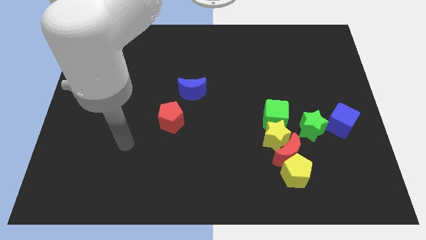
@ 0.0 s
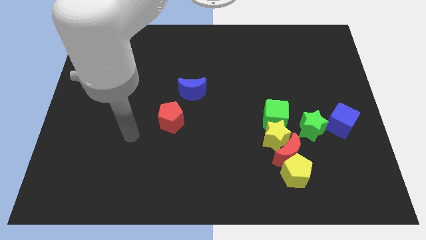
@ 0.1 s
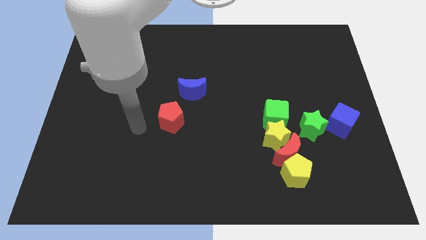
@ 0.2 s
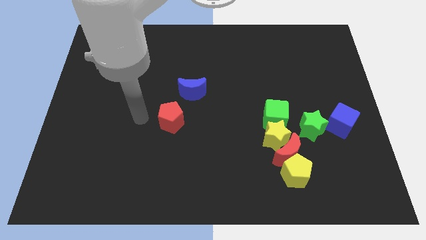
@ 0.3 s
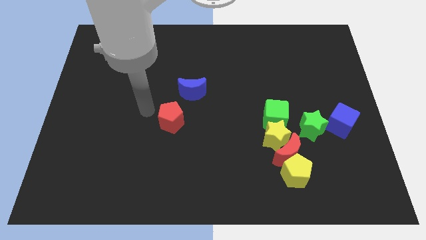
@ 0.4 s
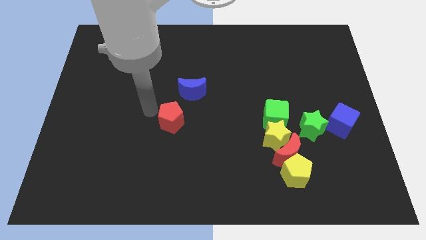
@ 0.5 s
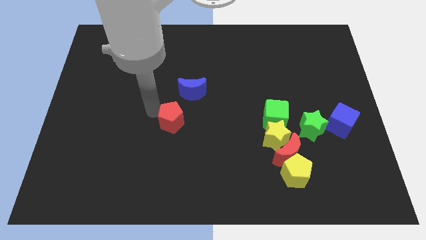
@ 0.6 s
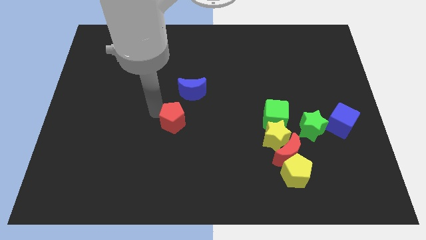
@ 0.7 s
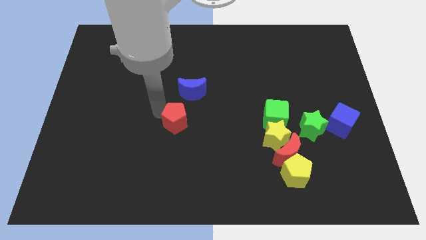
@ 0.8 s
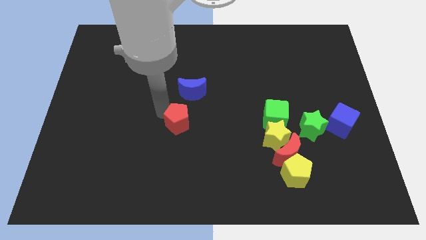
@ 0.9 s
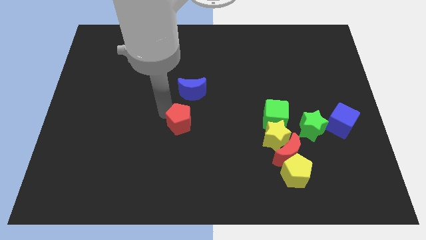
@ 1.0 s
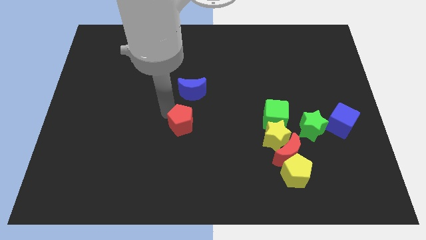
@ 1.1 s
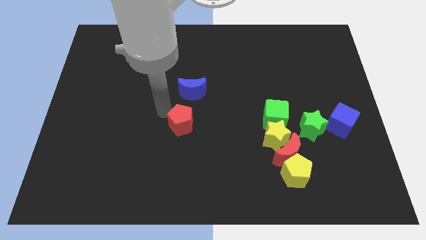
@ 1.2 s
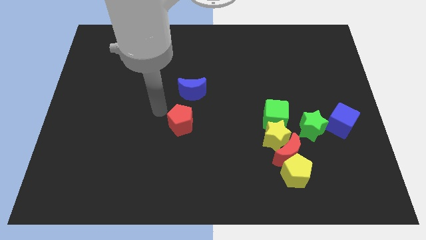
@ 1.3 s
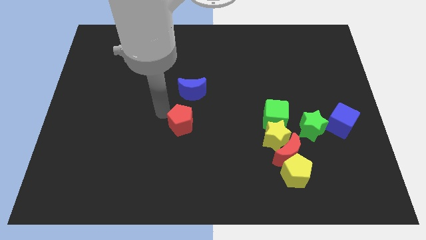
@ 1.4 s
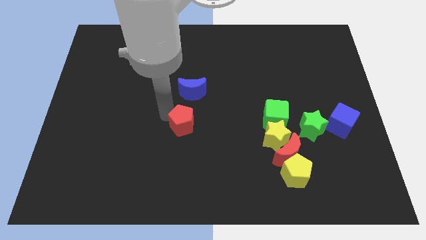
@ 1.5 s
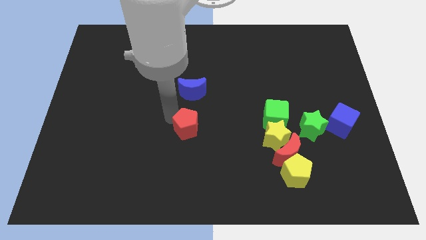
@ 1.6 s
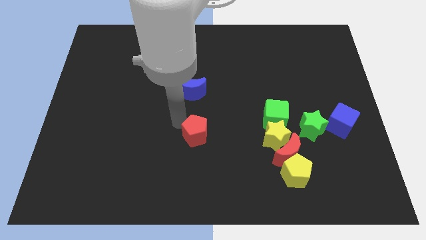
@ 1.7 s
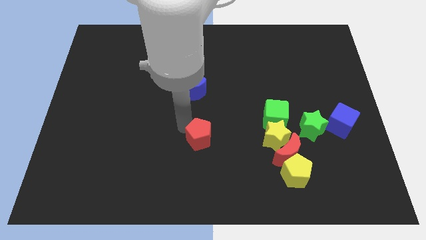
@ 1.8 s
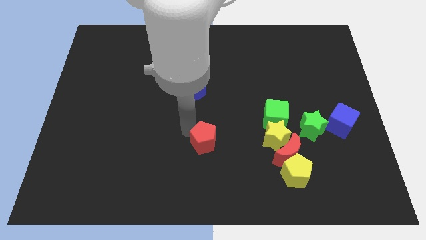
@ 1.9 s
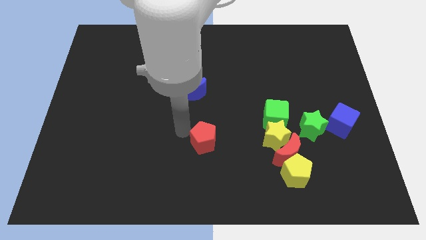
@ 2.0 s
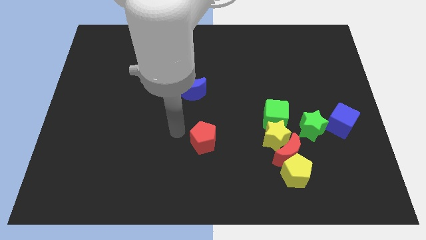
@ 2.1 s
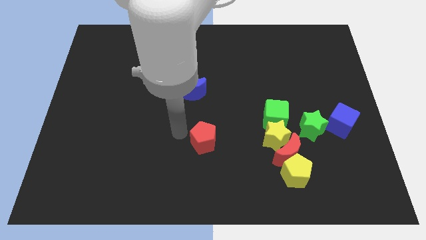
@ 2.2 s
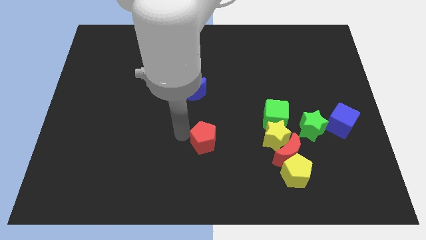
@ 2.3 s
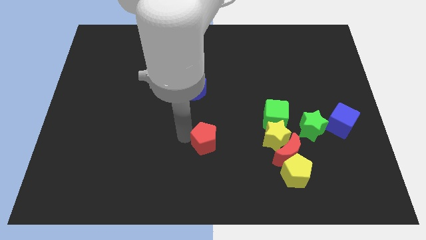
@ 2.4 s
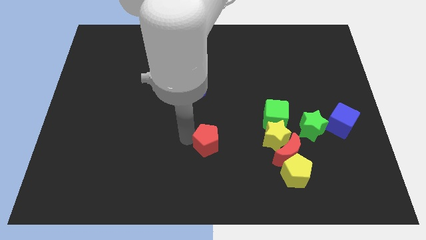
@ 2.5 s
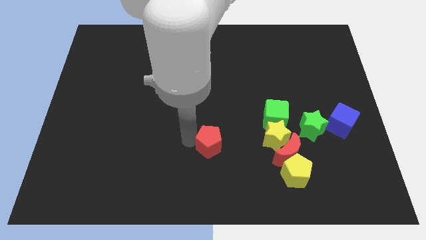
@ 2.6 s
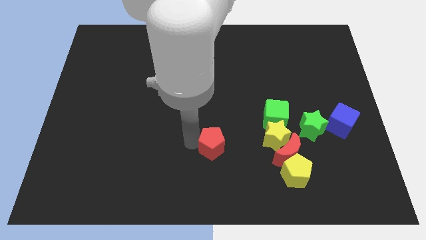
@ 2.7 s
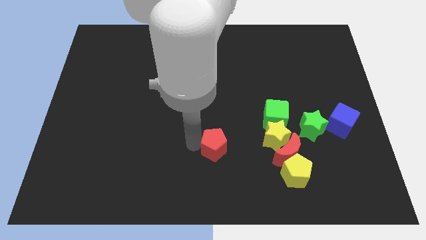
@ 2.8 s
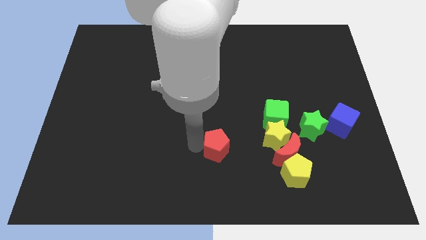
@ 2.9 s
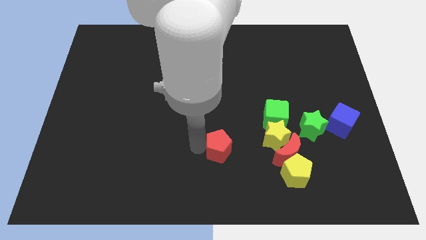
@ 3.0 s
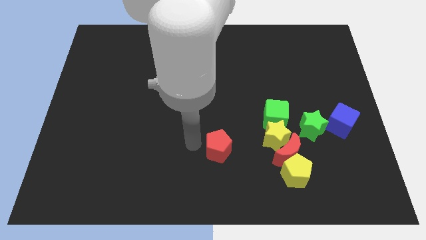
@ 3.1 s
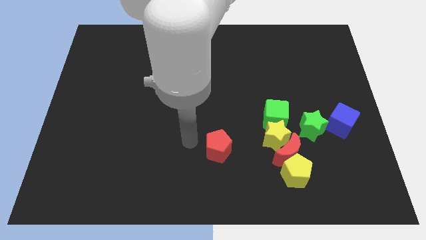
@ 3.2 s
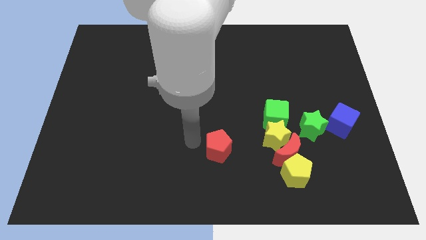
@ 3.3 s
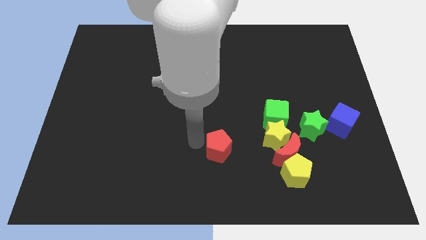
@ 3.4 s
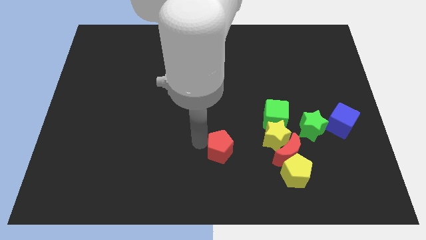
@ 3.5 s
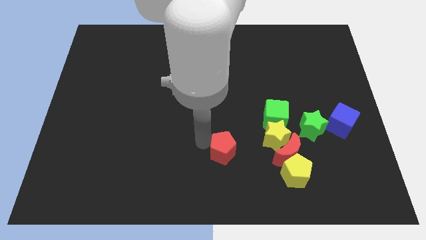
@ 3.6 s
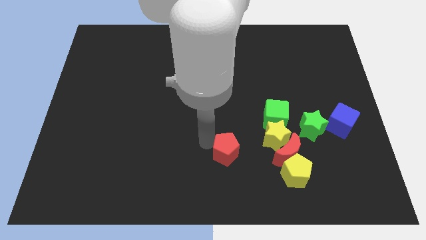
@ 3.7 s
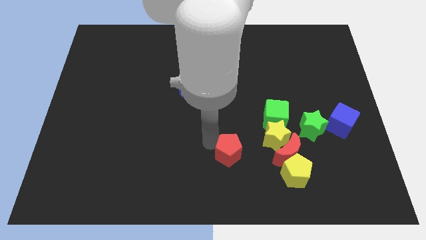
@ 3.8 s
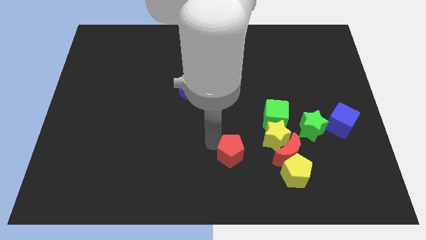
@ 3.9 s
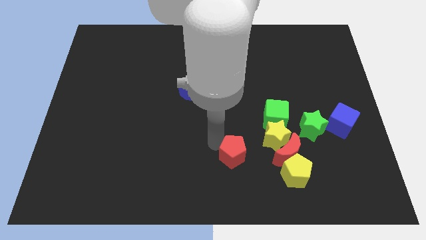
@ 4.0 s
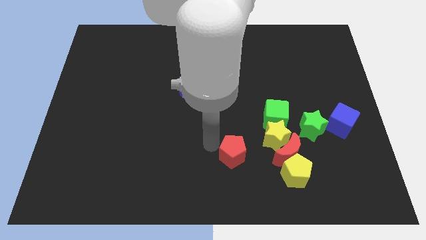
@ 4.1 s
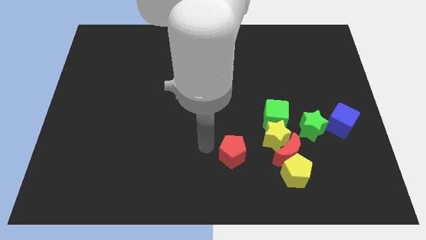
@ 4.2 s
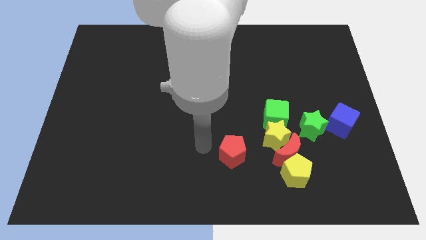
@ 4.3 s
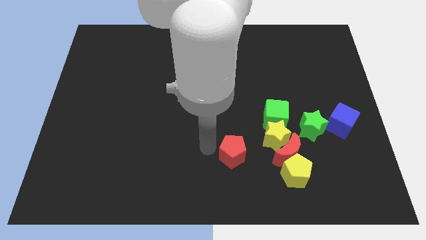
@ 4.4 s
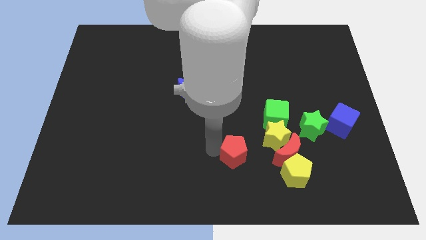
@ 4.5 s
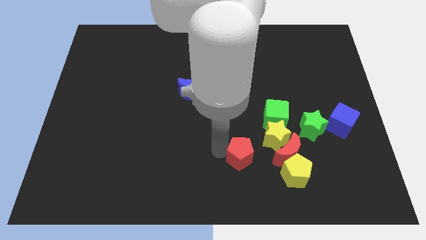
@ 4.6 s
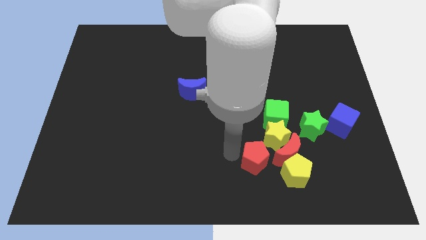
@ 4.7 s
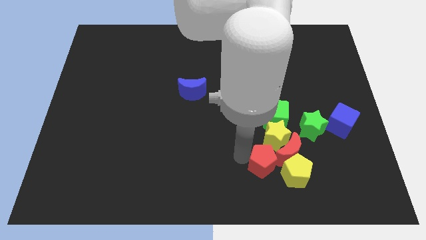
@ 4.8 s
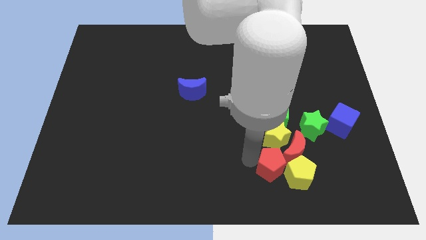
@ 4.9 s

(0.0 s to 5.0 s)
push the red pentagon close to the yellow pentagon

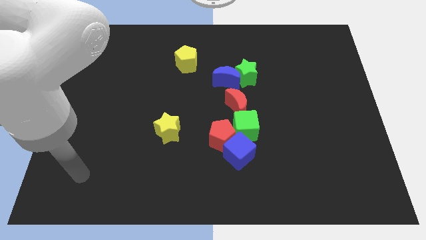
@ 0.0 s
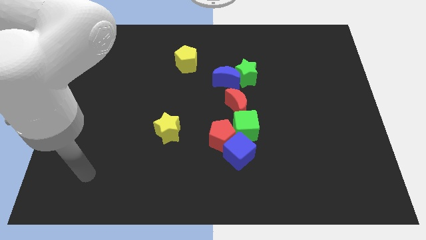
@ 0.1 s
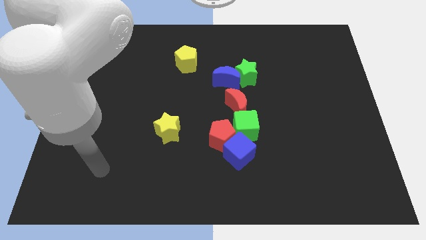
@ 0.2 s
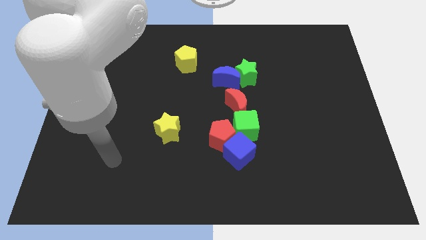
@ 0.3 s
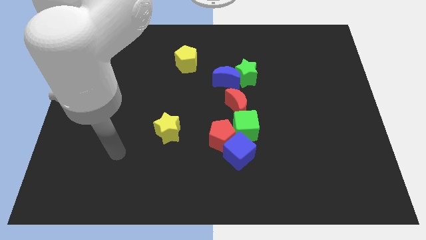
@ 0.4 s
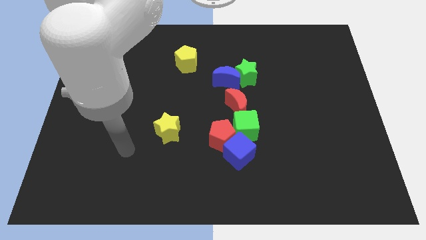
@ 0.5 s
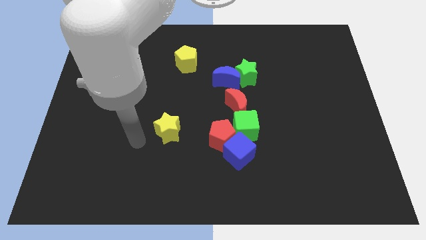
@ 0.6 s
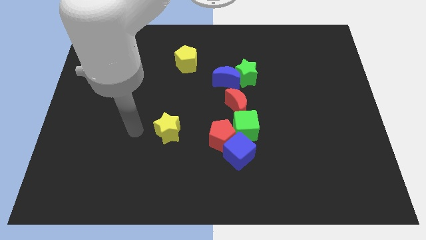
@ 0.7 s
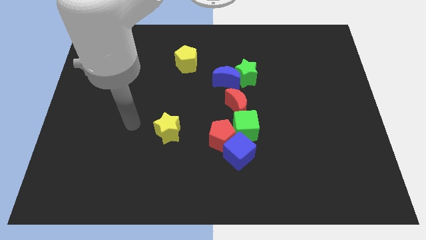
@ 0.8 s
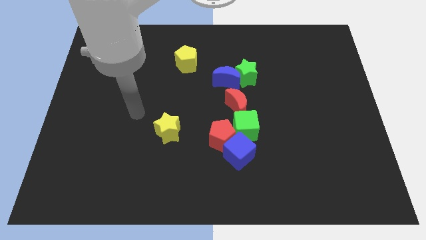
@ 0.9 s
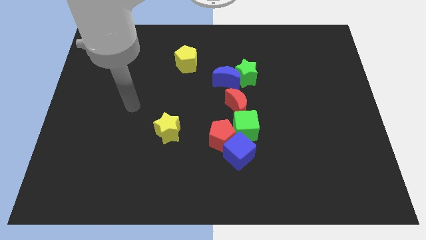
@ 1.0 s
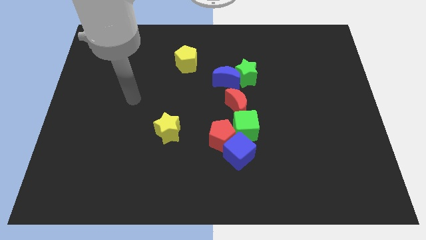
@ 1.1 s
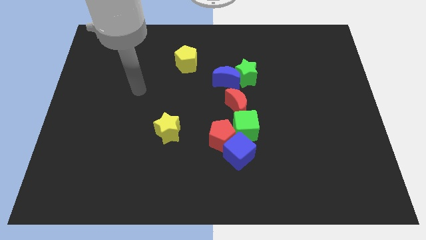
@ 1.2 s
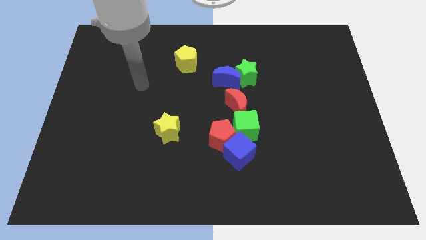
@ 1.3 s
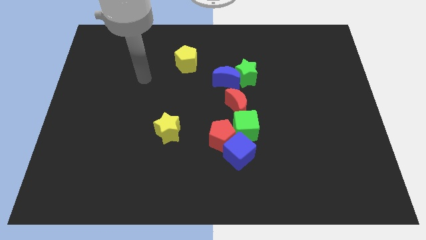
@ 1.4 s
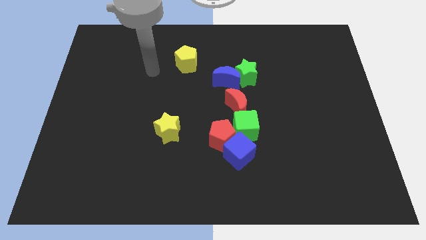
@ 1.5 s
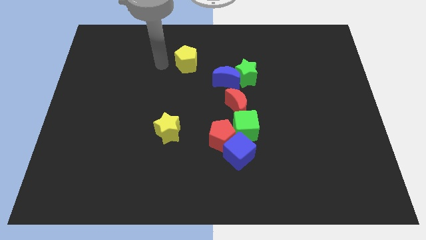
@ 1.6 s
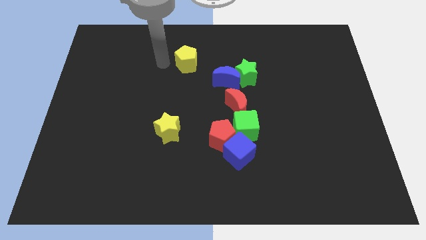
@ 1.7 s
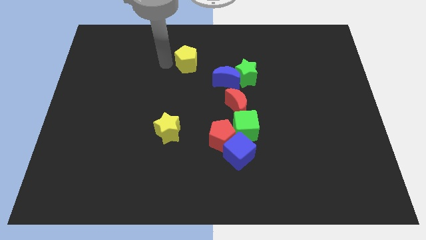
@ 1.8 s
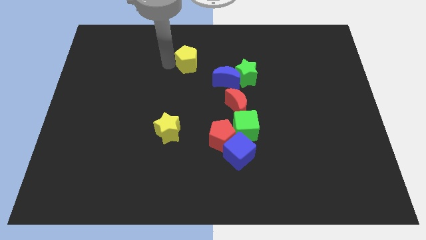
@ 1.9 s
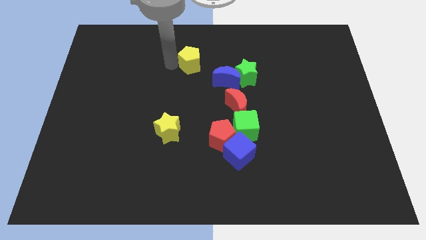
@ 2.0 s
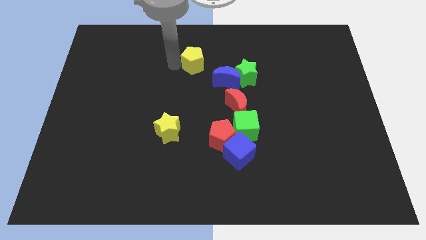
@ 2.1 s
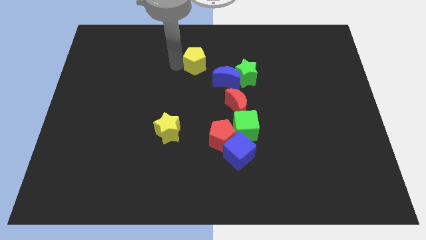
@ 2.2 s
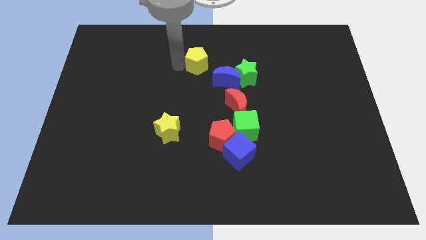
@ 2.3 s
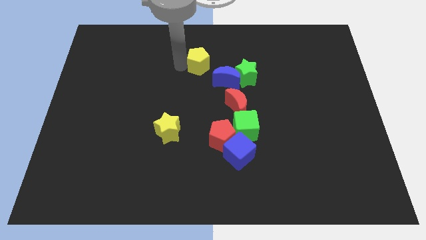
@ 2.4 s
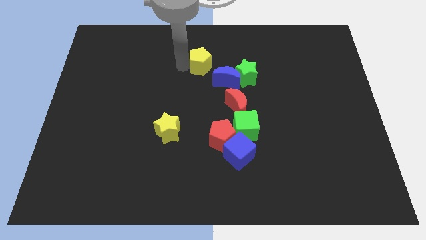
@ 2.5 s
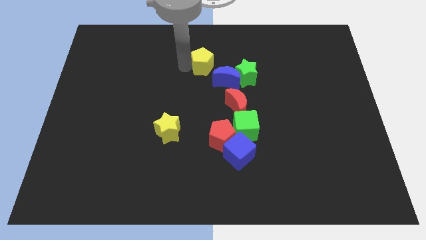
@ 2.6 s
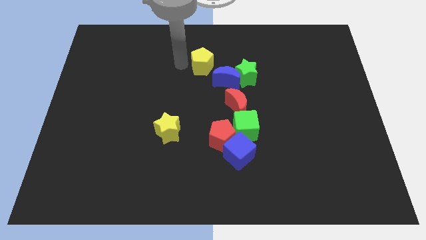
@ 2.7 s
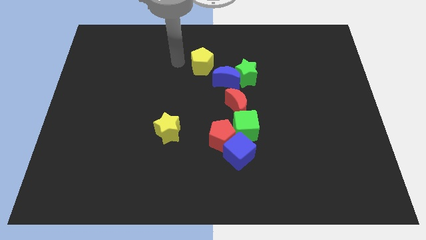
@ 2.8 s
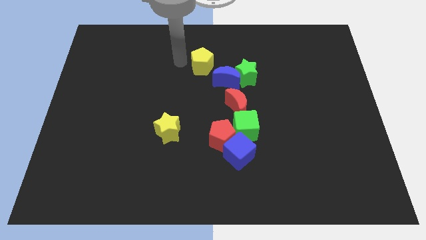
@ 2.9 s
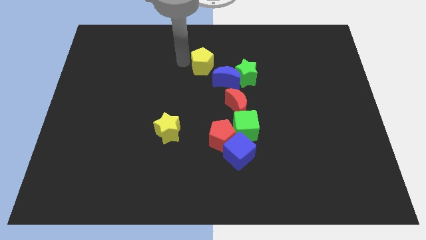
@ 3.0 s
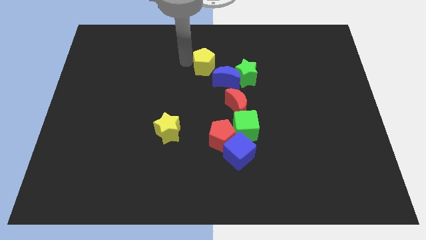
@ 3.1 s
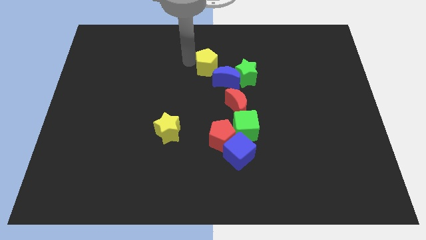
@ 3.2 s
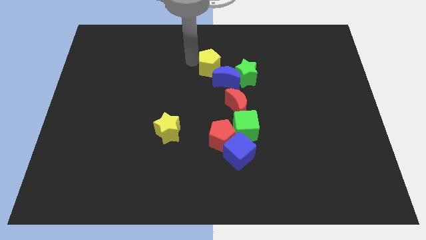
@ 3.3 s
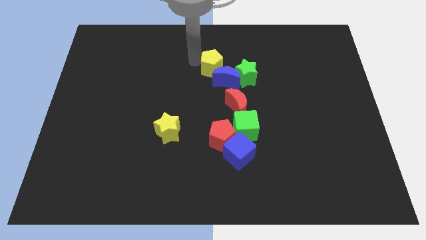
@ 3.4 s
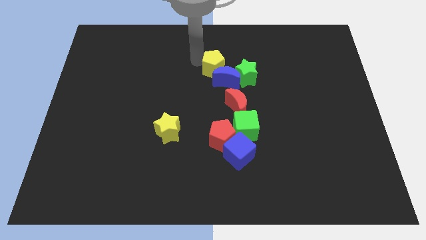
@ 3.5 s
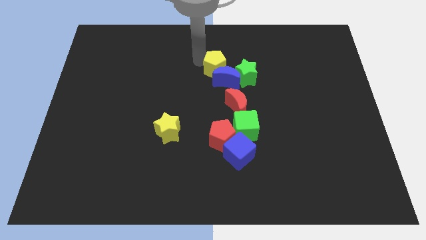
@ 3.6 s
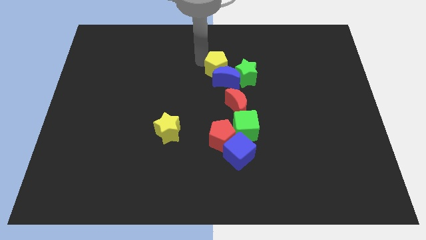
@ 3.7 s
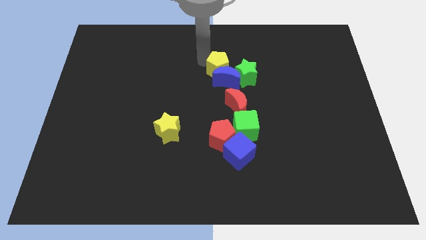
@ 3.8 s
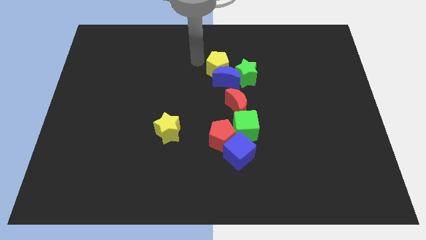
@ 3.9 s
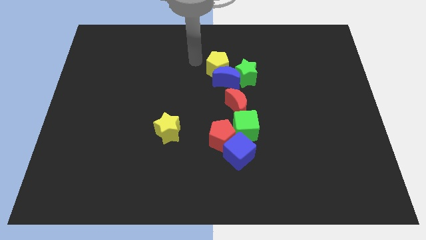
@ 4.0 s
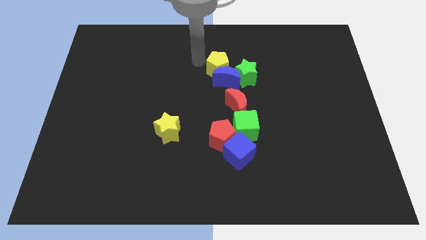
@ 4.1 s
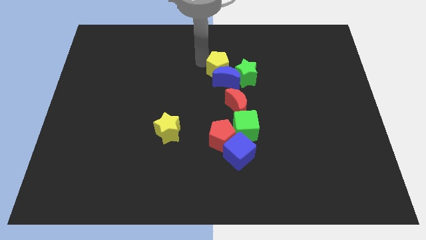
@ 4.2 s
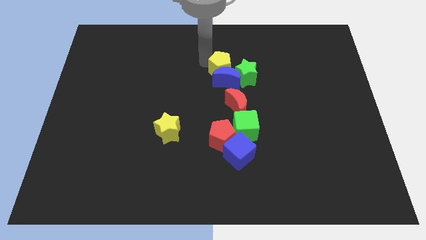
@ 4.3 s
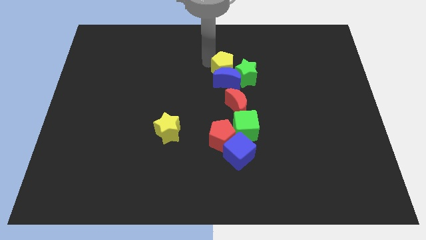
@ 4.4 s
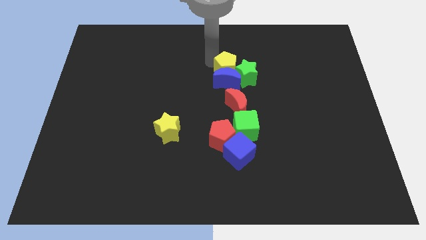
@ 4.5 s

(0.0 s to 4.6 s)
slide the yellow pentagon to the green star
